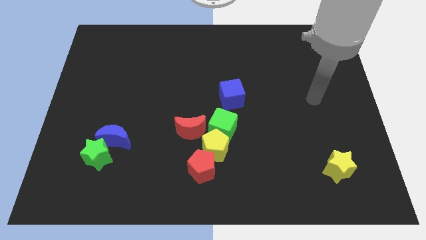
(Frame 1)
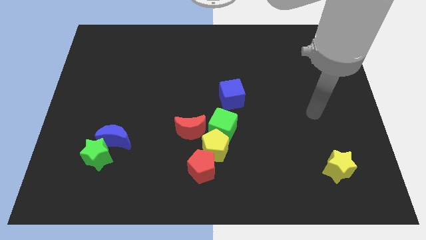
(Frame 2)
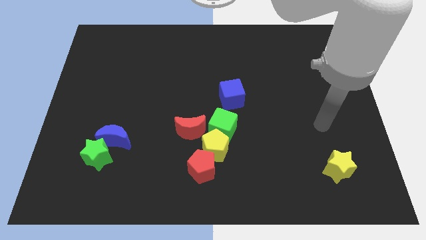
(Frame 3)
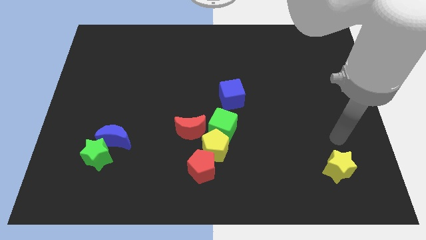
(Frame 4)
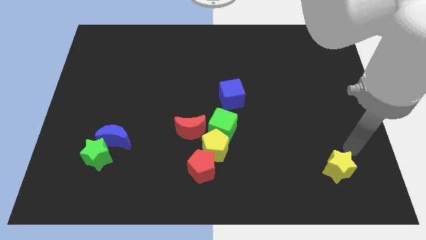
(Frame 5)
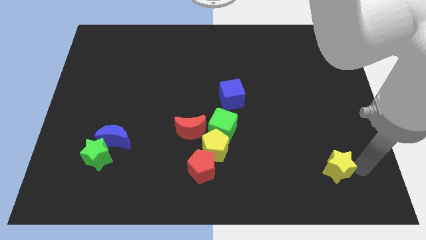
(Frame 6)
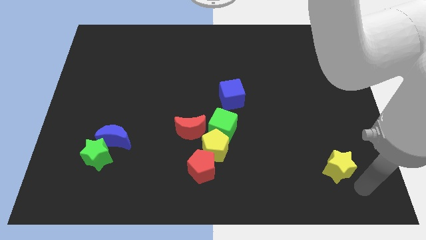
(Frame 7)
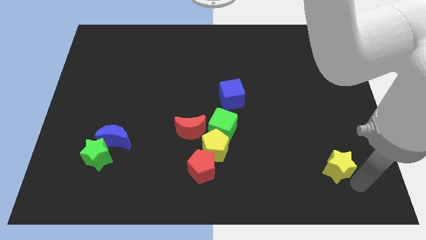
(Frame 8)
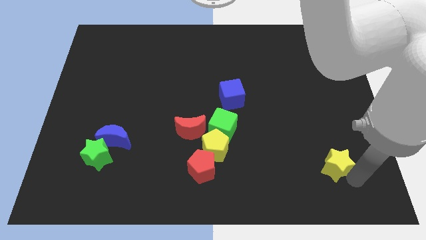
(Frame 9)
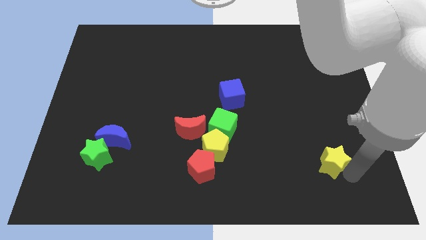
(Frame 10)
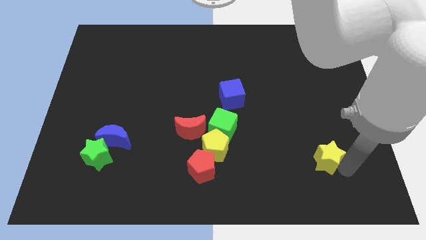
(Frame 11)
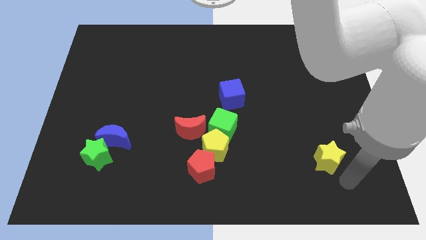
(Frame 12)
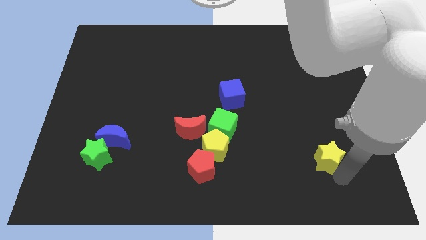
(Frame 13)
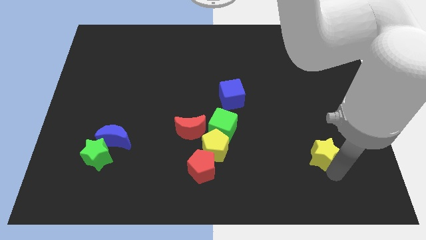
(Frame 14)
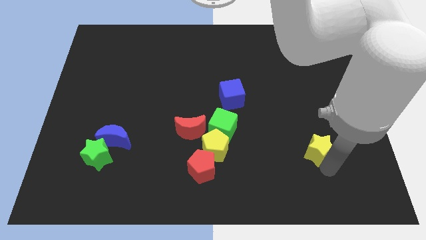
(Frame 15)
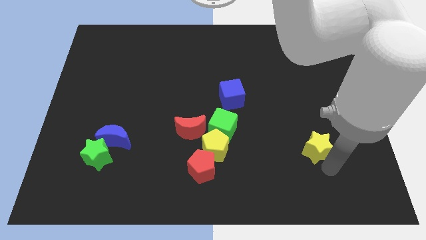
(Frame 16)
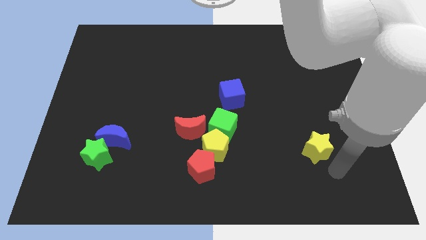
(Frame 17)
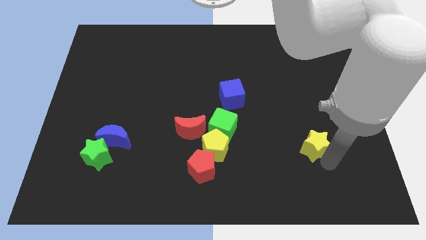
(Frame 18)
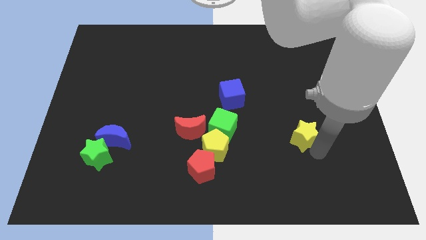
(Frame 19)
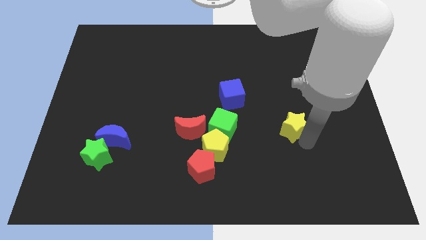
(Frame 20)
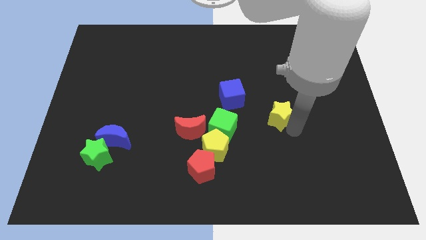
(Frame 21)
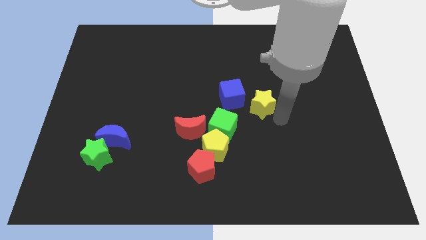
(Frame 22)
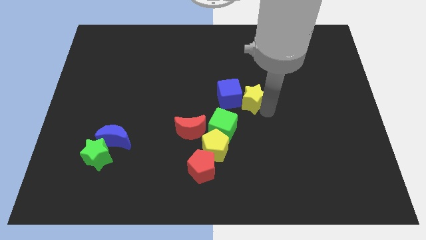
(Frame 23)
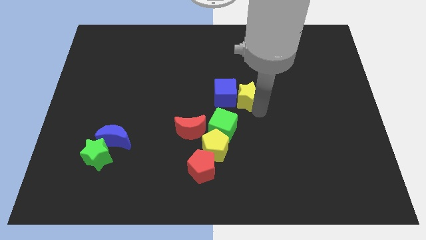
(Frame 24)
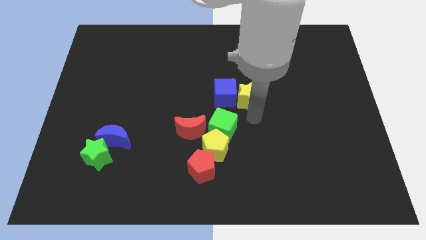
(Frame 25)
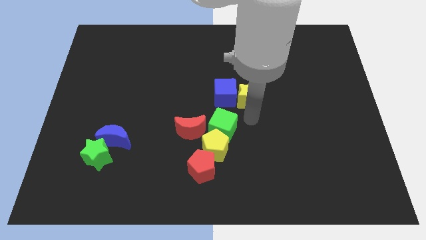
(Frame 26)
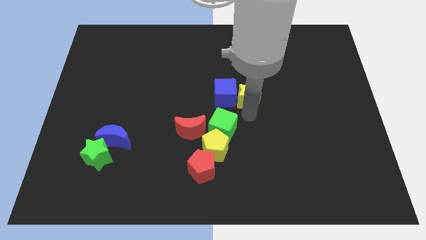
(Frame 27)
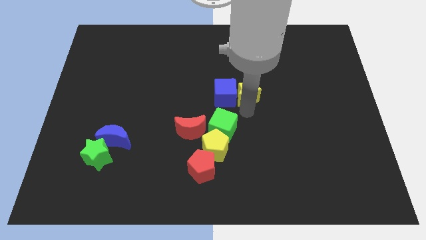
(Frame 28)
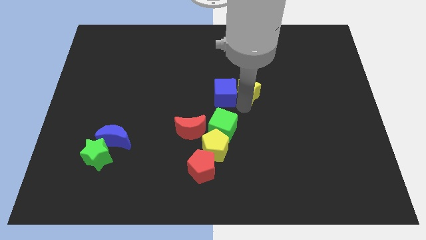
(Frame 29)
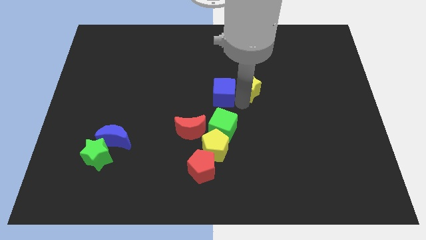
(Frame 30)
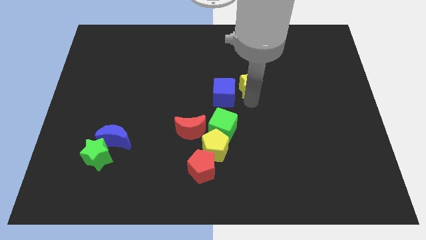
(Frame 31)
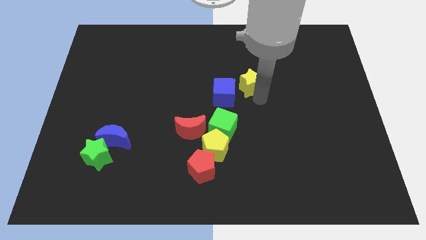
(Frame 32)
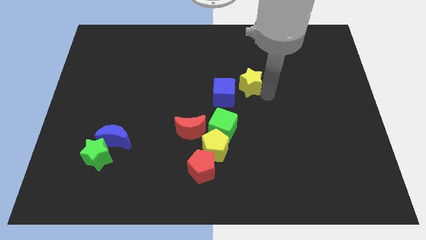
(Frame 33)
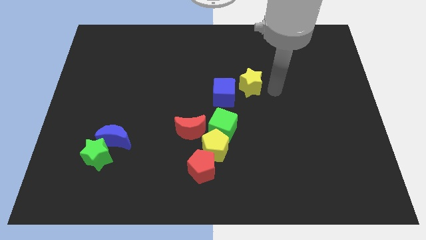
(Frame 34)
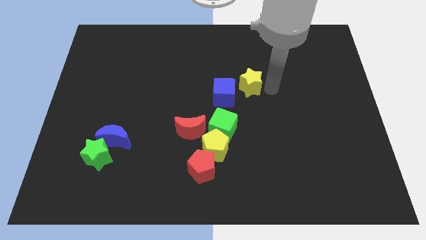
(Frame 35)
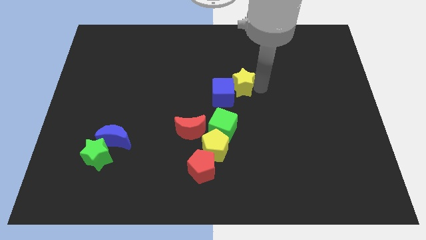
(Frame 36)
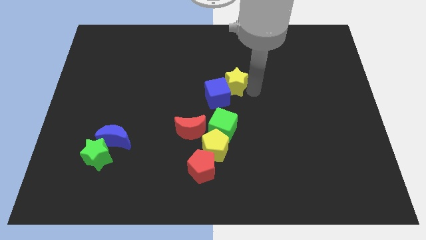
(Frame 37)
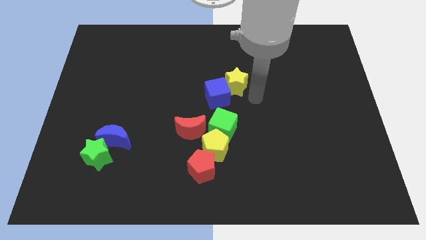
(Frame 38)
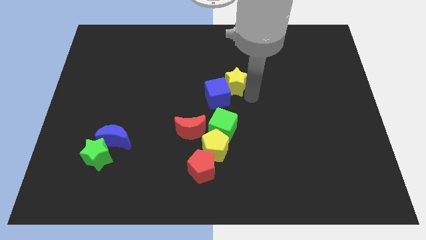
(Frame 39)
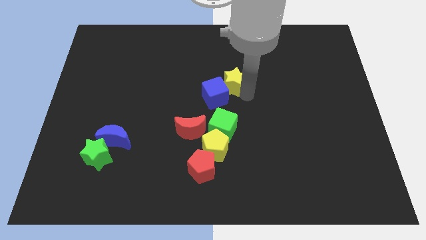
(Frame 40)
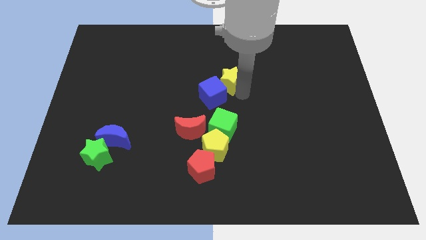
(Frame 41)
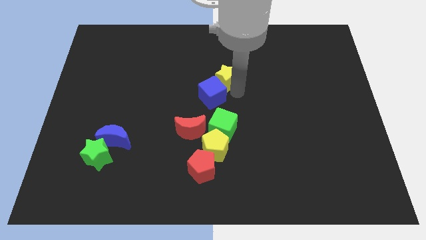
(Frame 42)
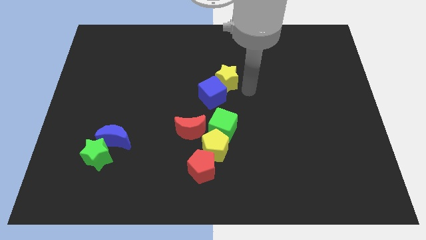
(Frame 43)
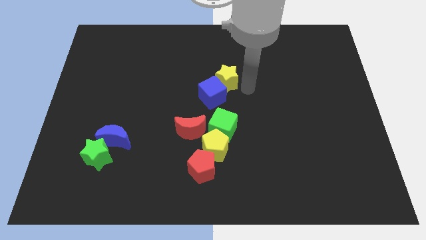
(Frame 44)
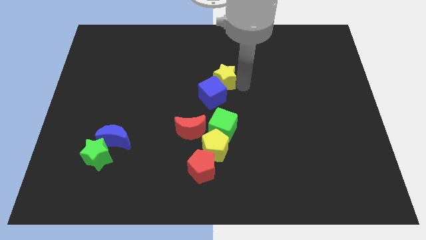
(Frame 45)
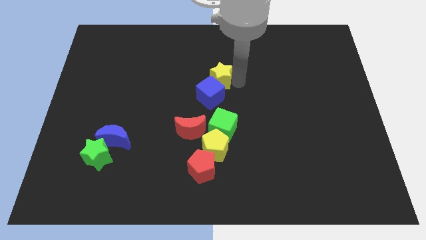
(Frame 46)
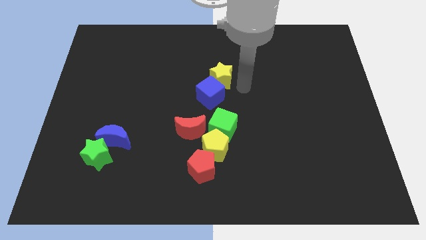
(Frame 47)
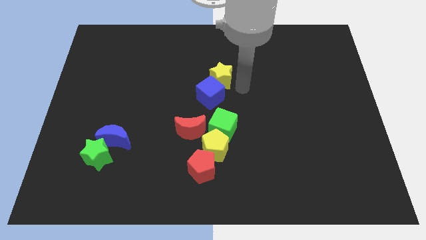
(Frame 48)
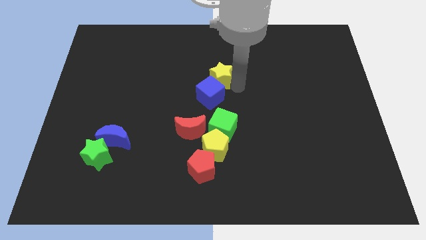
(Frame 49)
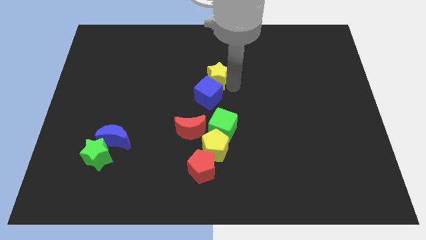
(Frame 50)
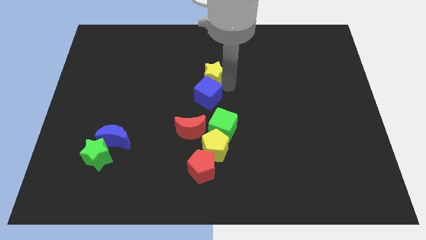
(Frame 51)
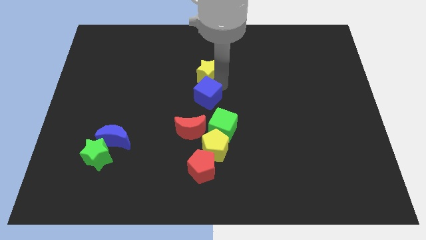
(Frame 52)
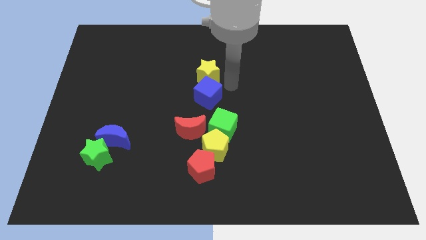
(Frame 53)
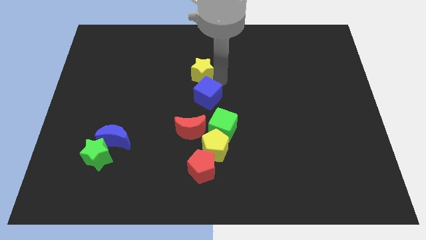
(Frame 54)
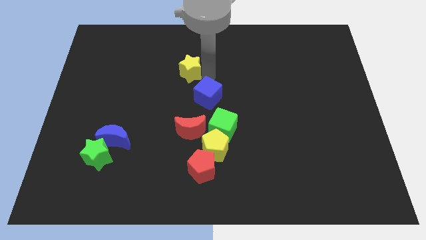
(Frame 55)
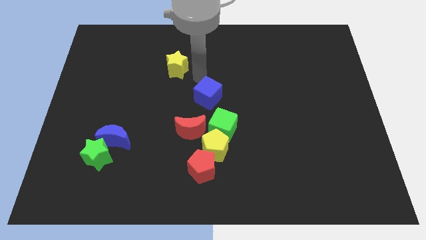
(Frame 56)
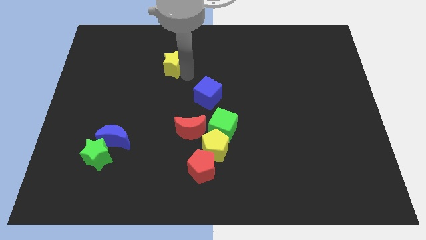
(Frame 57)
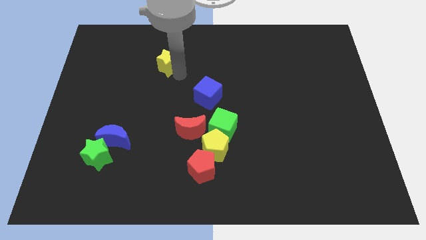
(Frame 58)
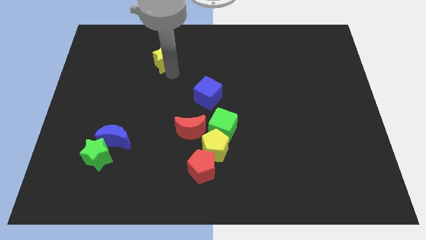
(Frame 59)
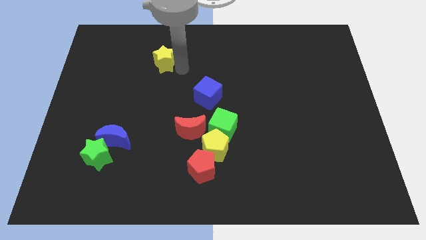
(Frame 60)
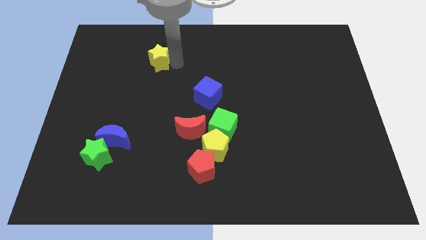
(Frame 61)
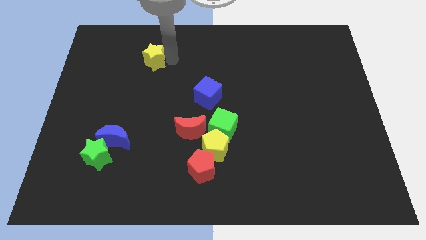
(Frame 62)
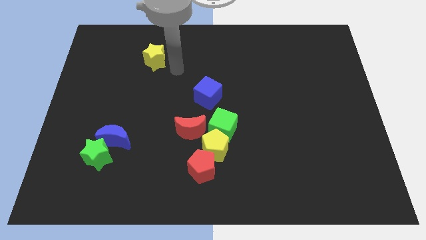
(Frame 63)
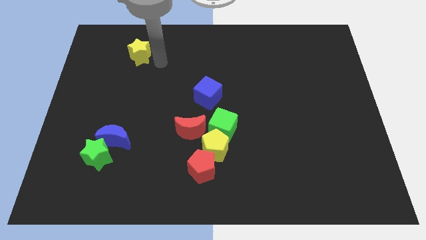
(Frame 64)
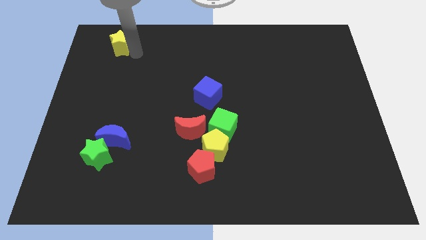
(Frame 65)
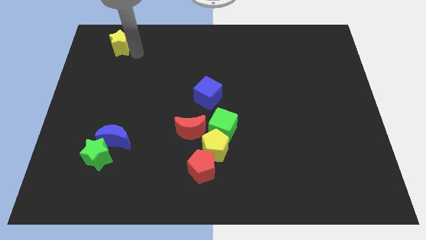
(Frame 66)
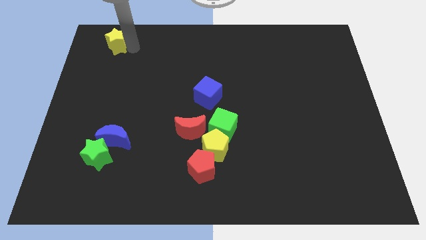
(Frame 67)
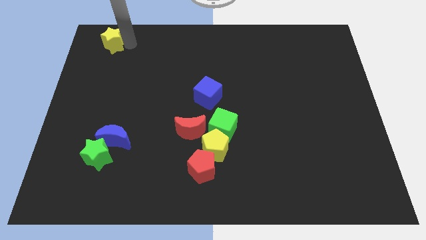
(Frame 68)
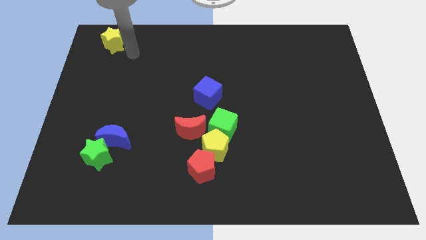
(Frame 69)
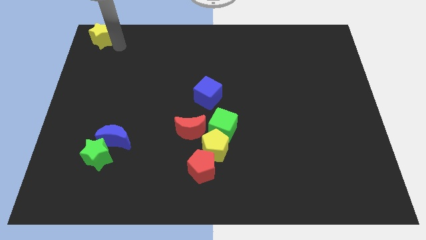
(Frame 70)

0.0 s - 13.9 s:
push the yellow star to the top left corner
